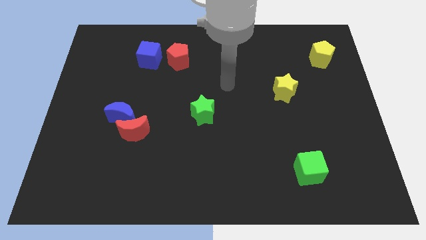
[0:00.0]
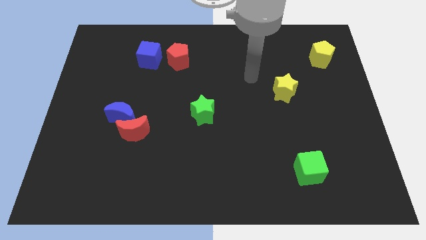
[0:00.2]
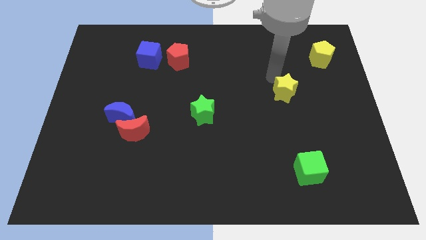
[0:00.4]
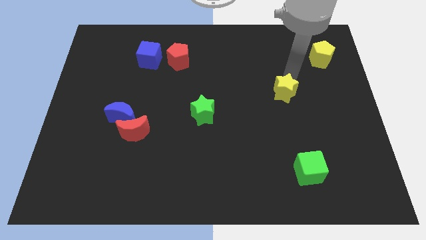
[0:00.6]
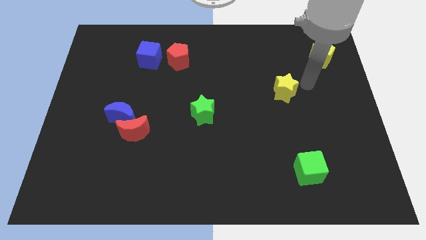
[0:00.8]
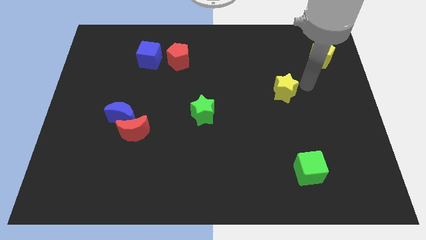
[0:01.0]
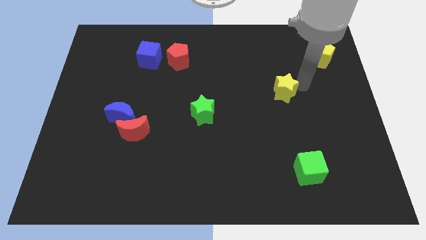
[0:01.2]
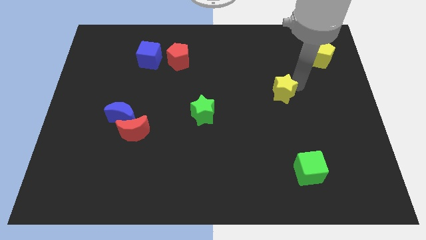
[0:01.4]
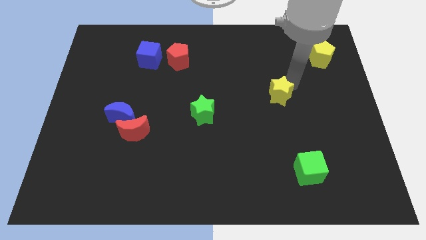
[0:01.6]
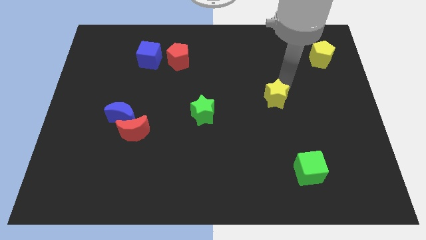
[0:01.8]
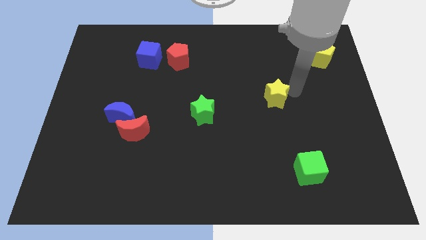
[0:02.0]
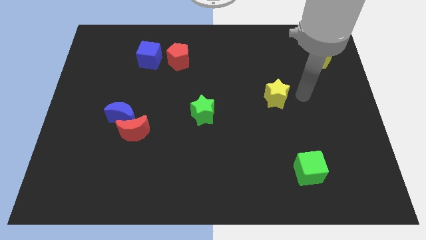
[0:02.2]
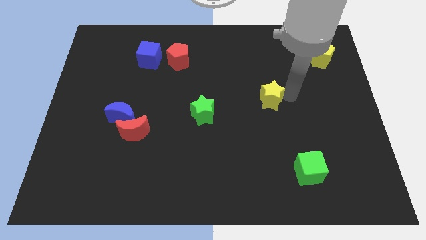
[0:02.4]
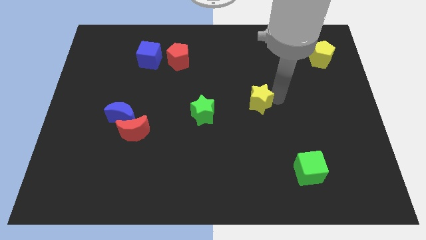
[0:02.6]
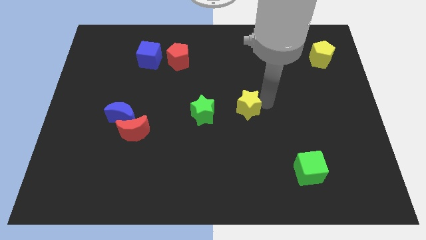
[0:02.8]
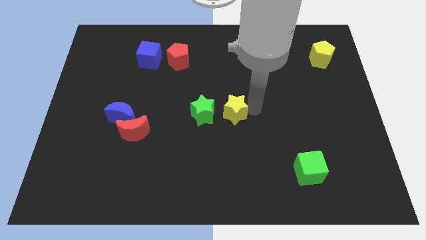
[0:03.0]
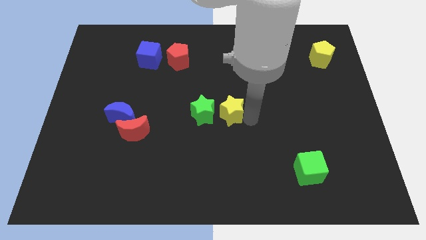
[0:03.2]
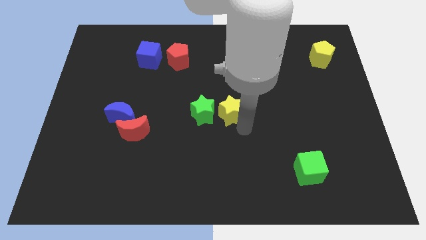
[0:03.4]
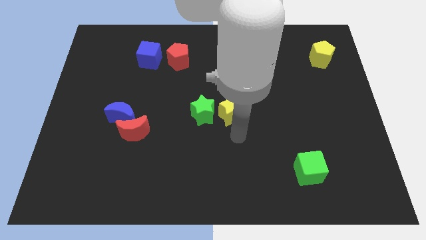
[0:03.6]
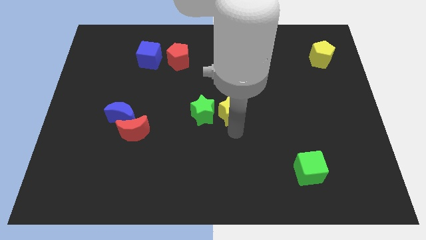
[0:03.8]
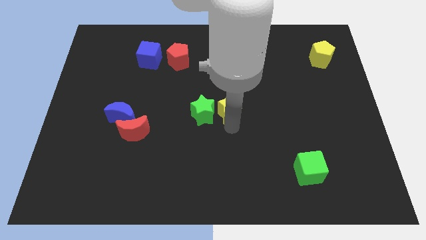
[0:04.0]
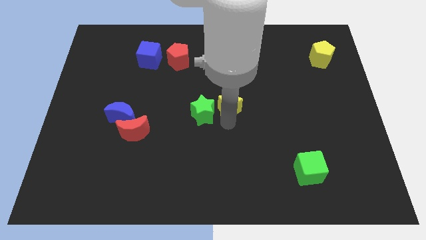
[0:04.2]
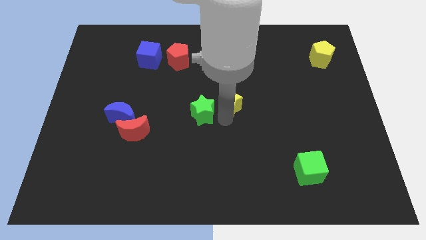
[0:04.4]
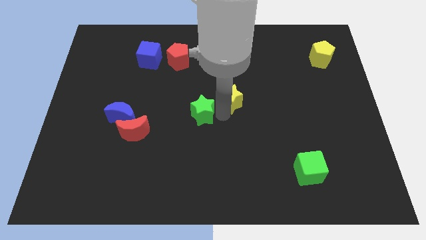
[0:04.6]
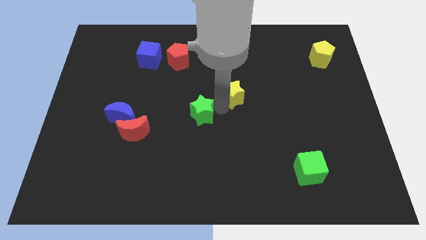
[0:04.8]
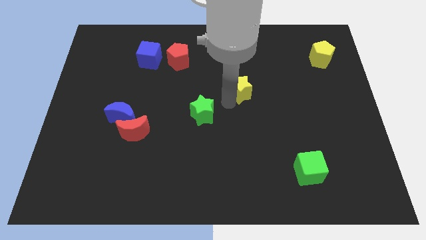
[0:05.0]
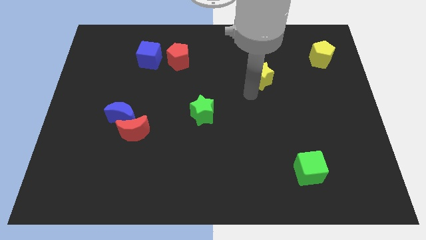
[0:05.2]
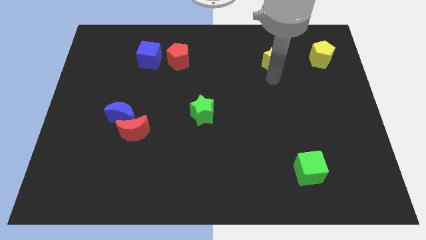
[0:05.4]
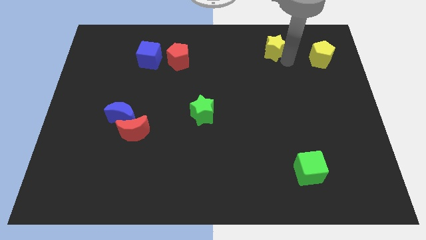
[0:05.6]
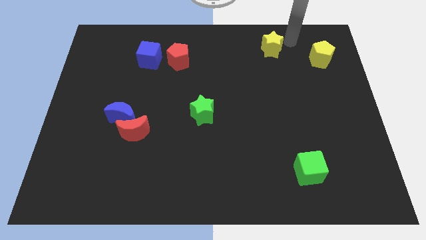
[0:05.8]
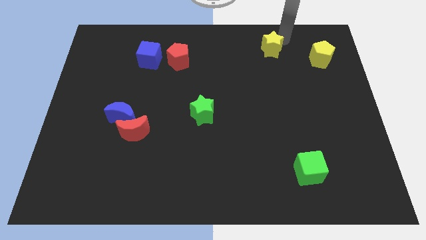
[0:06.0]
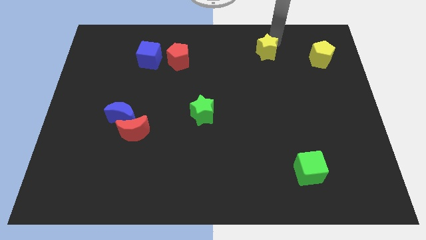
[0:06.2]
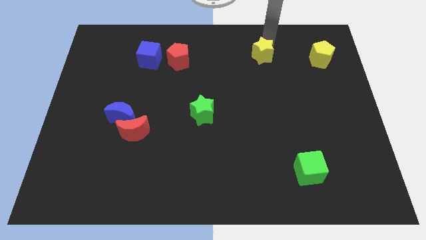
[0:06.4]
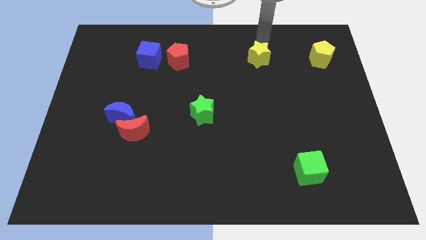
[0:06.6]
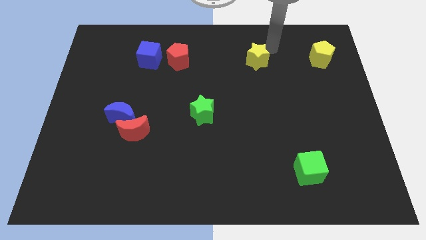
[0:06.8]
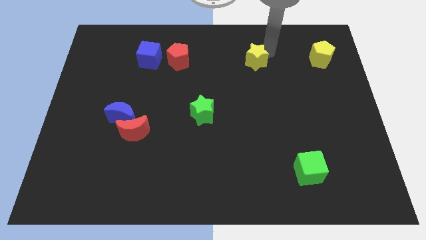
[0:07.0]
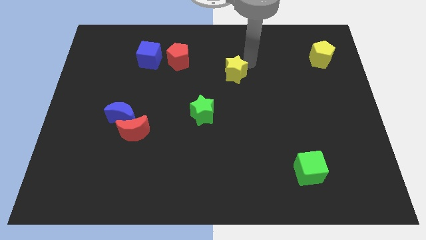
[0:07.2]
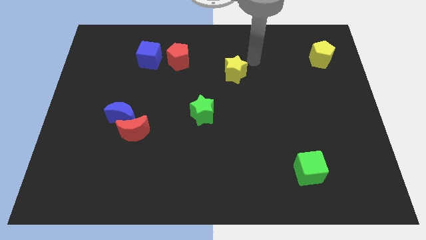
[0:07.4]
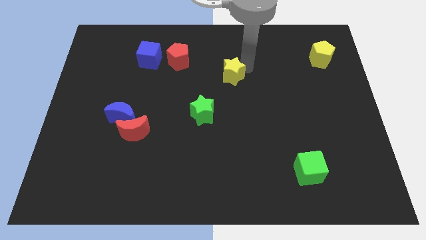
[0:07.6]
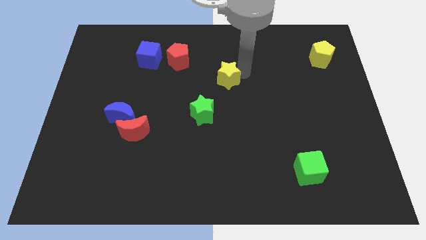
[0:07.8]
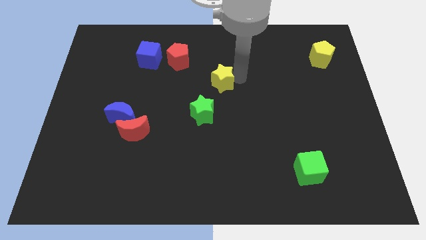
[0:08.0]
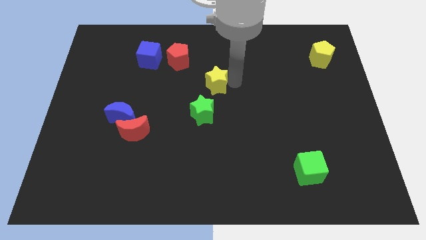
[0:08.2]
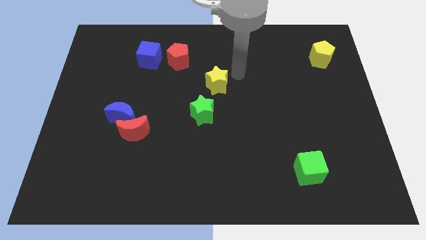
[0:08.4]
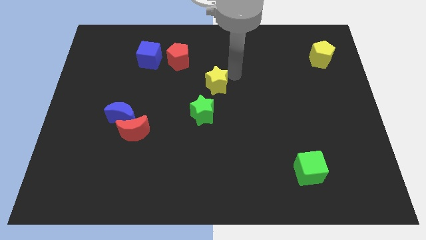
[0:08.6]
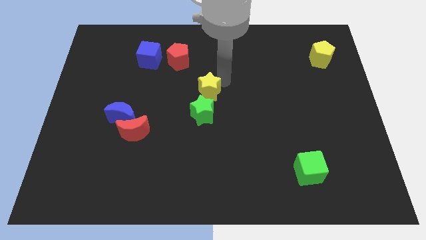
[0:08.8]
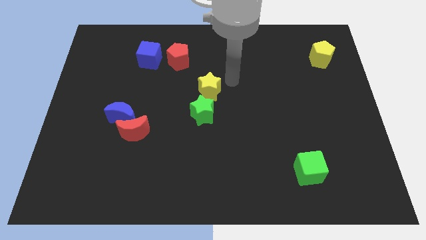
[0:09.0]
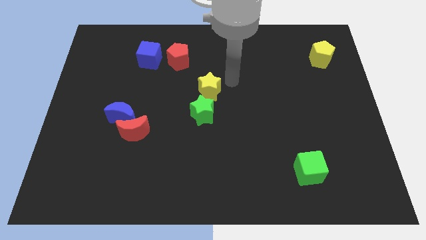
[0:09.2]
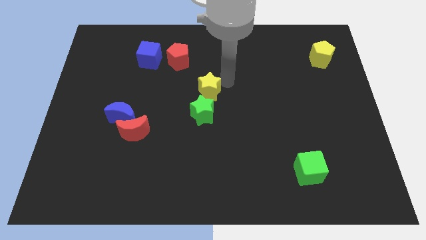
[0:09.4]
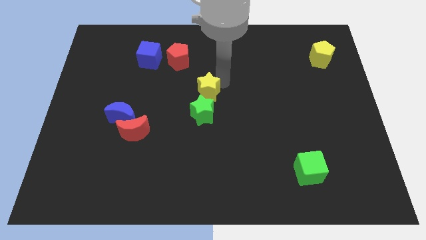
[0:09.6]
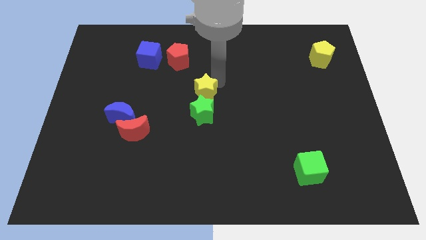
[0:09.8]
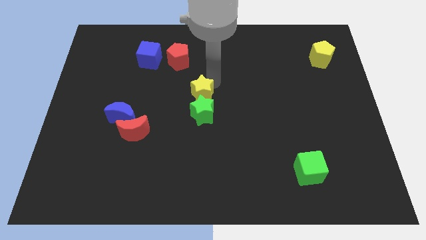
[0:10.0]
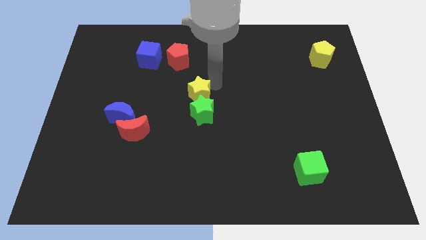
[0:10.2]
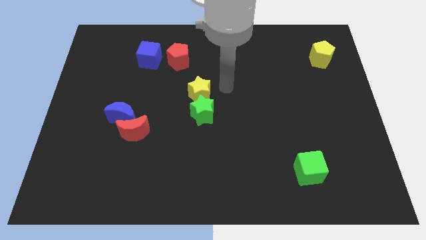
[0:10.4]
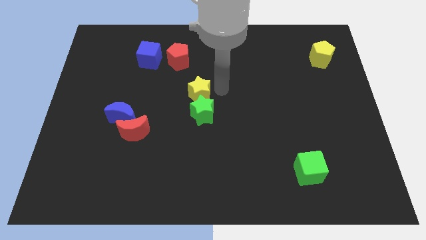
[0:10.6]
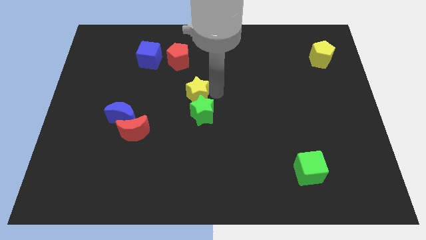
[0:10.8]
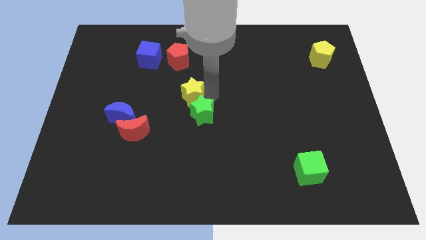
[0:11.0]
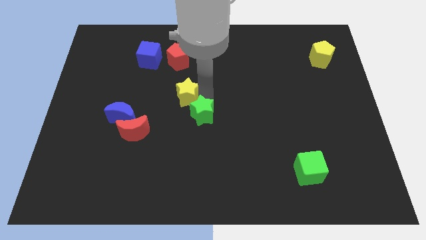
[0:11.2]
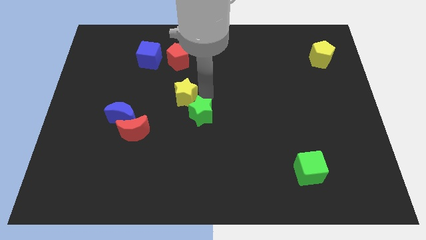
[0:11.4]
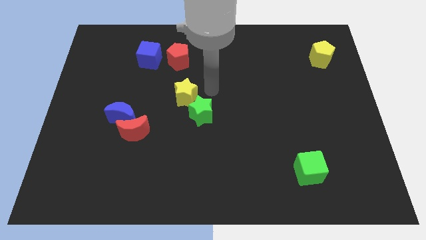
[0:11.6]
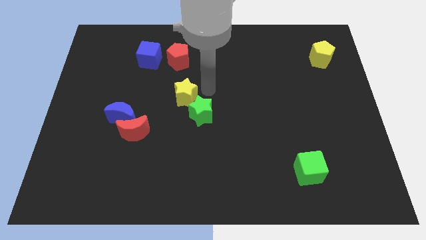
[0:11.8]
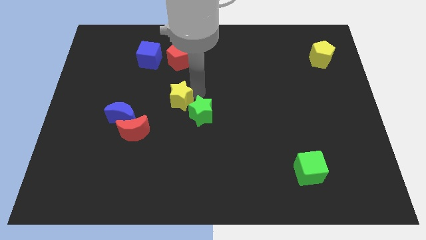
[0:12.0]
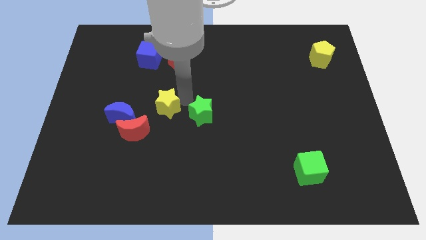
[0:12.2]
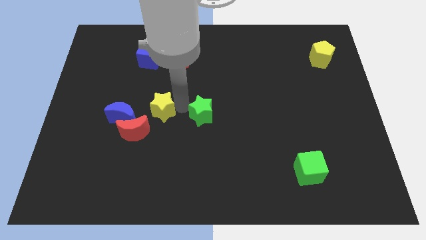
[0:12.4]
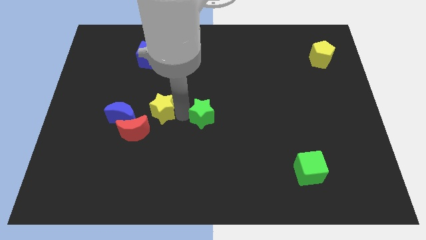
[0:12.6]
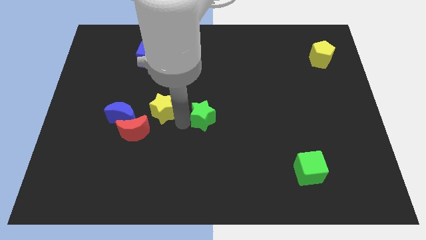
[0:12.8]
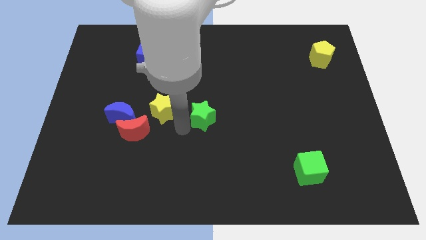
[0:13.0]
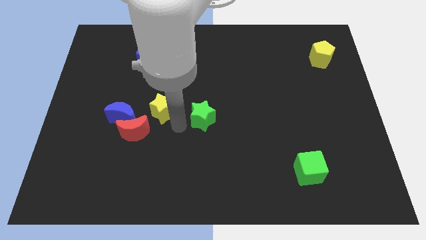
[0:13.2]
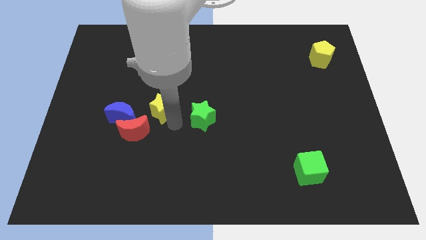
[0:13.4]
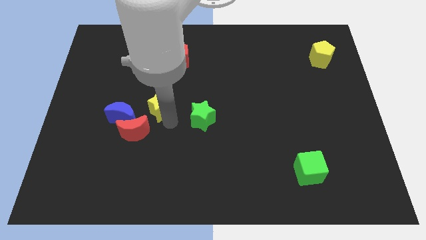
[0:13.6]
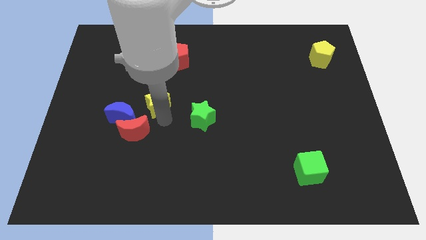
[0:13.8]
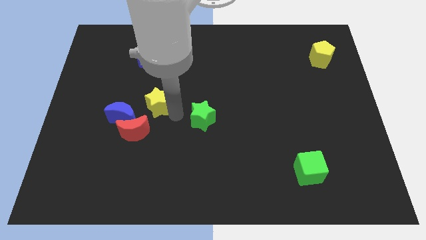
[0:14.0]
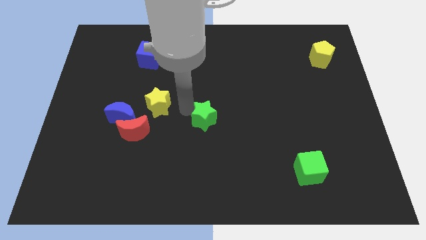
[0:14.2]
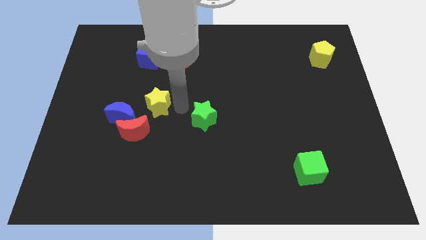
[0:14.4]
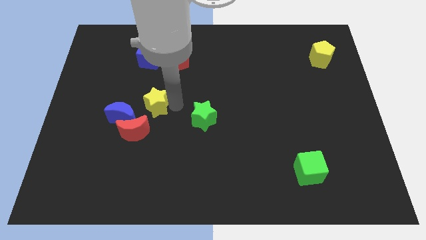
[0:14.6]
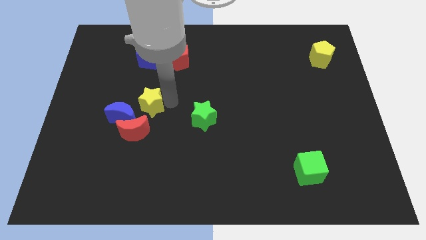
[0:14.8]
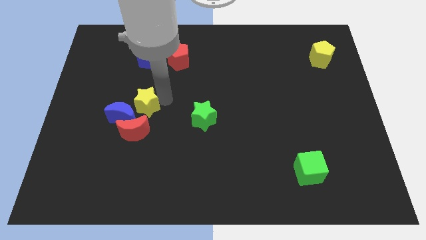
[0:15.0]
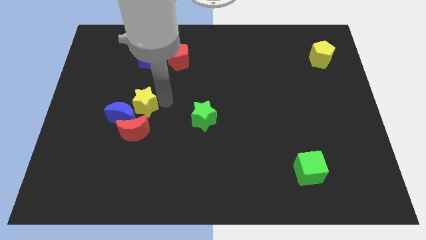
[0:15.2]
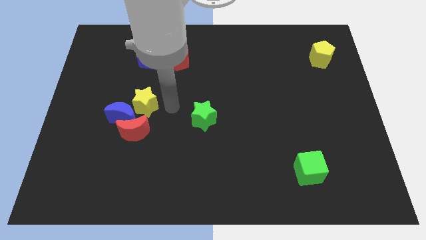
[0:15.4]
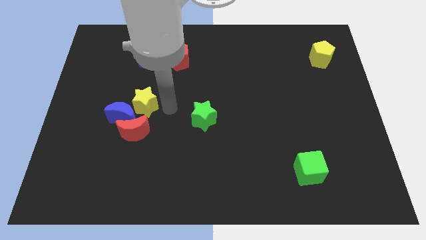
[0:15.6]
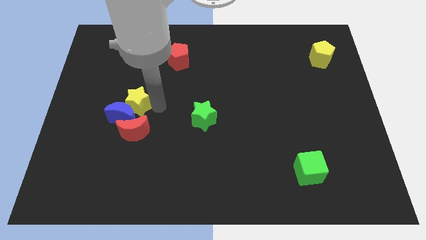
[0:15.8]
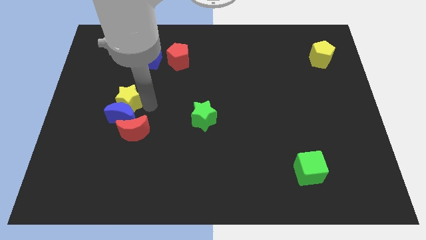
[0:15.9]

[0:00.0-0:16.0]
slide the yellow star diagonally up and to the left of the blue moon
